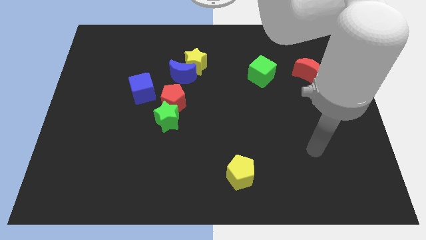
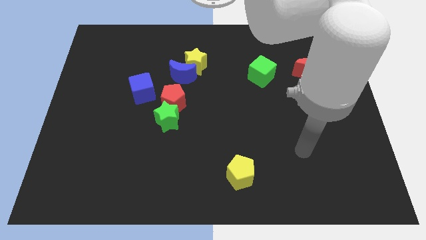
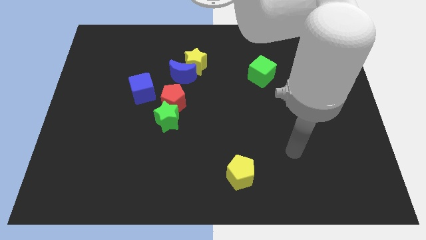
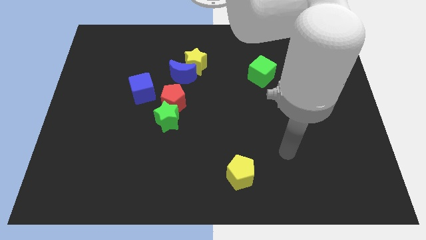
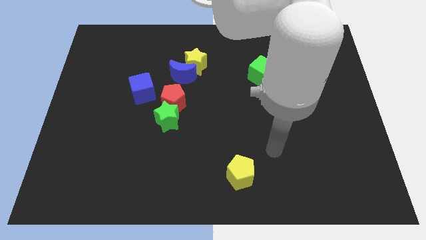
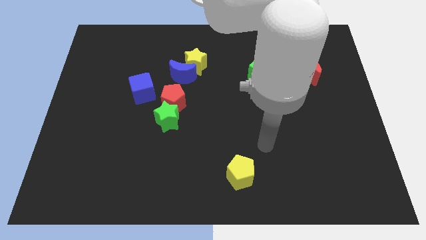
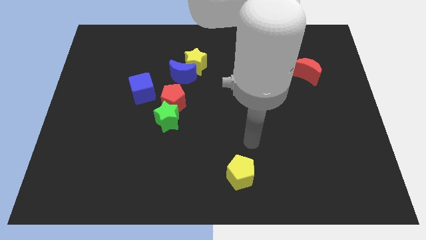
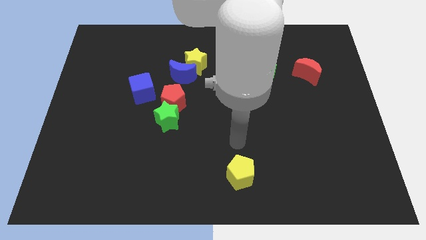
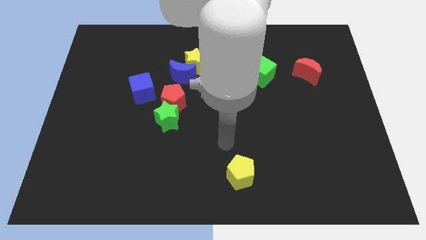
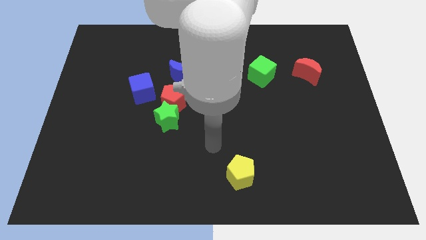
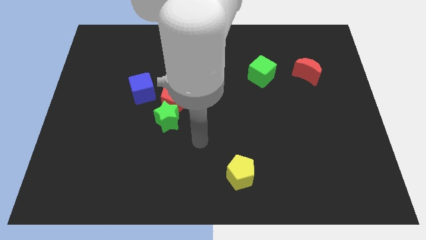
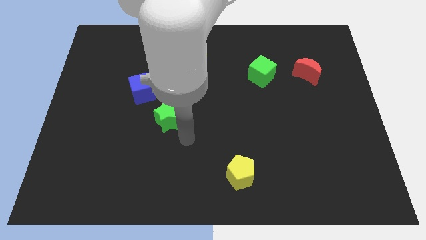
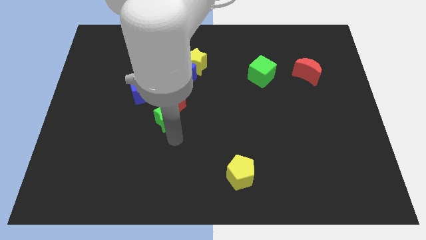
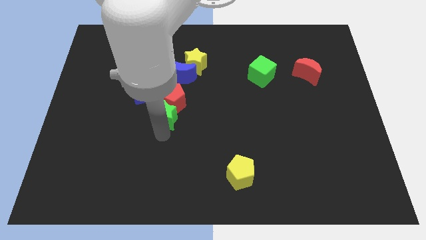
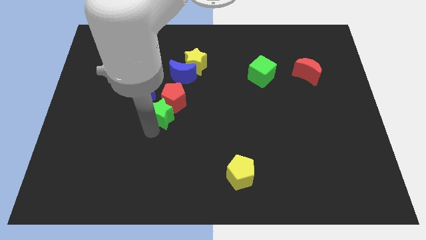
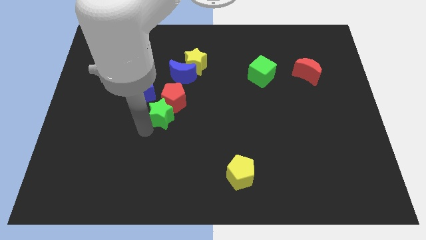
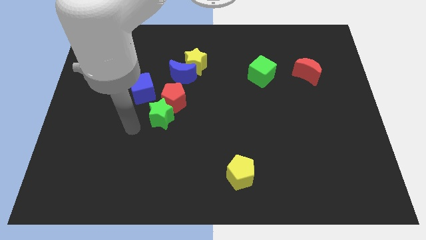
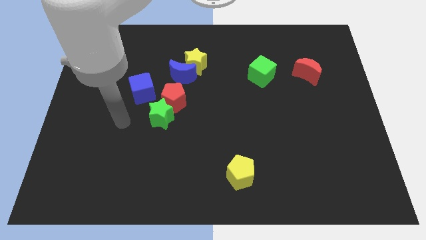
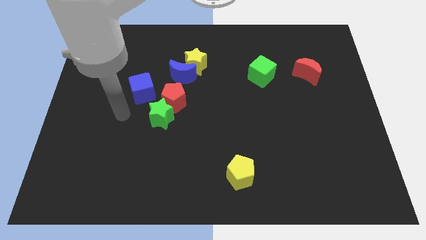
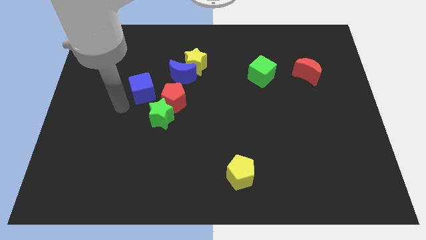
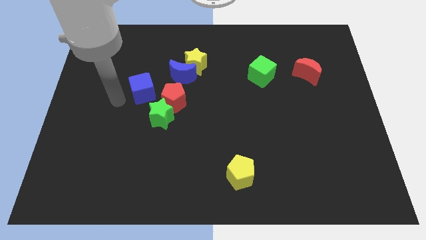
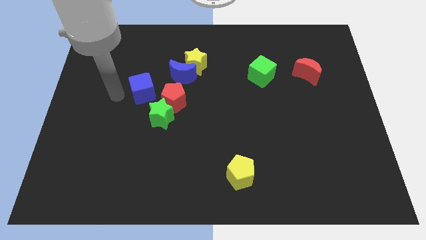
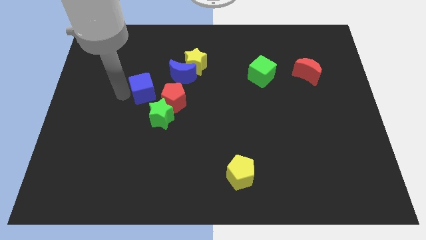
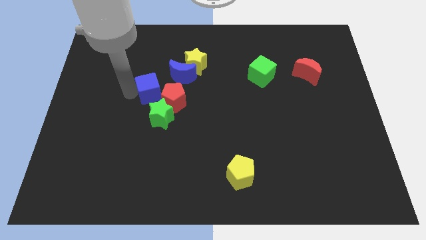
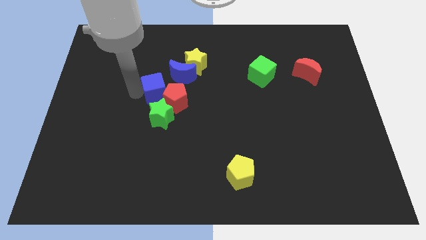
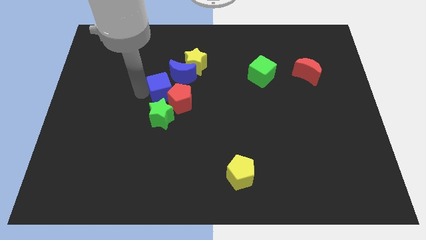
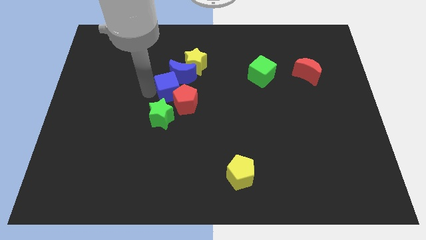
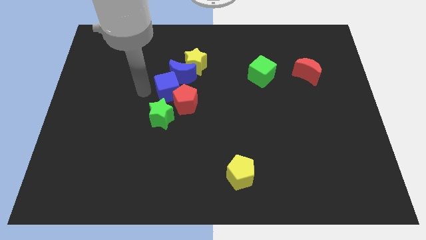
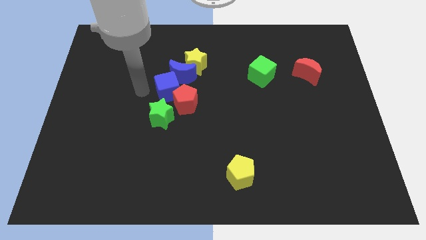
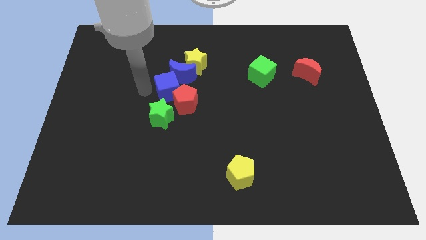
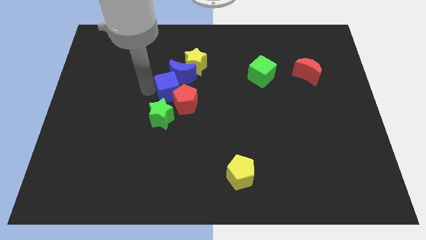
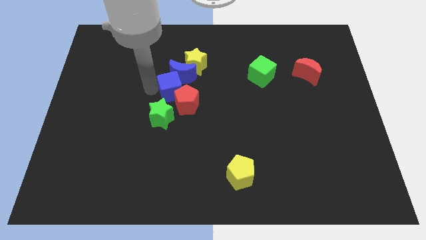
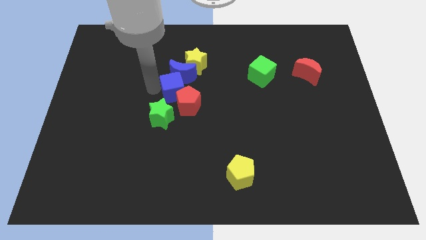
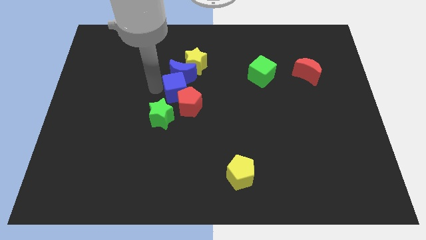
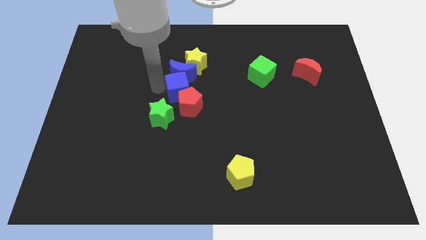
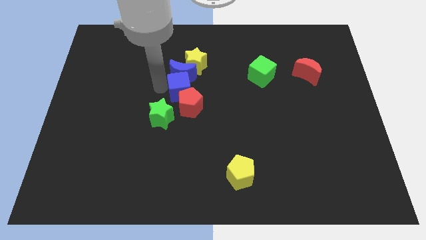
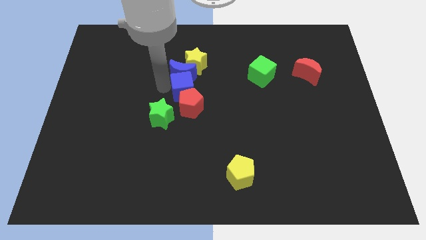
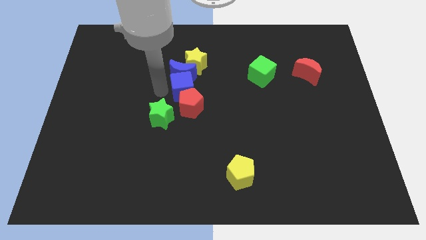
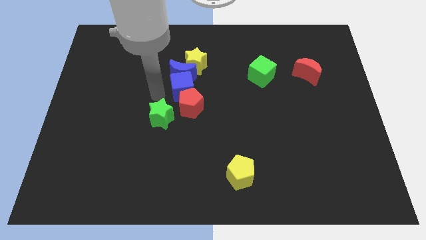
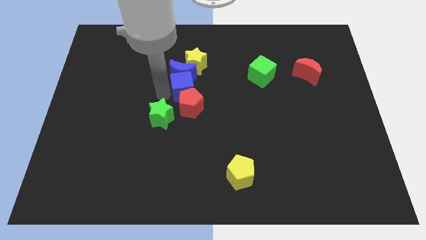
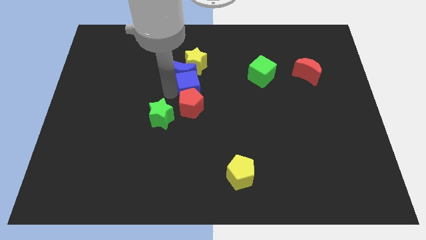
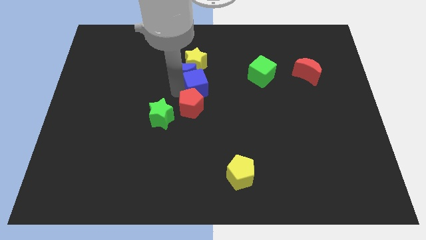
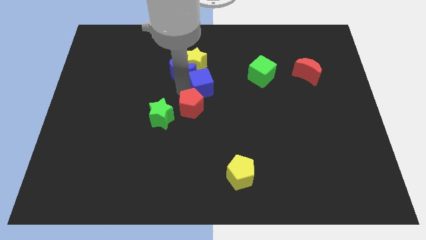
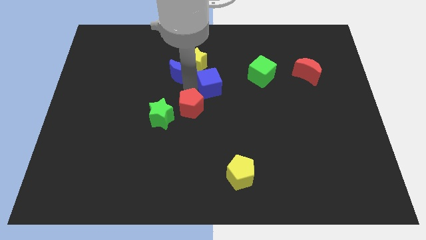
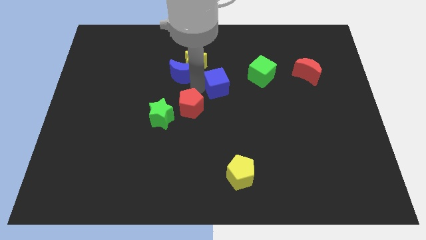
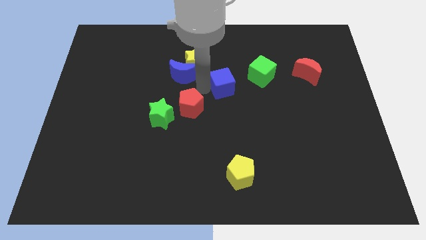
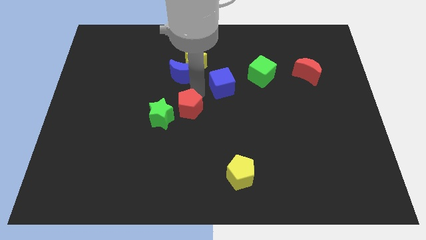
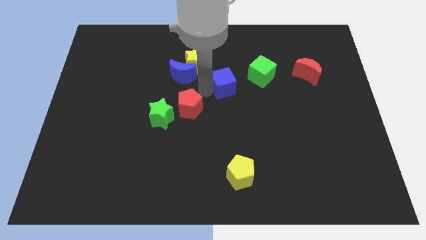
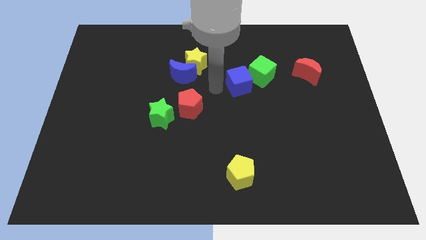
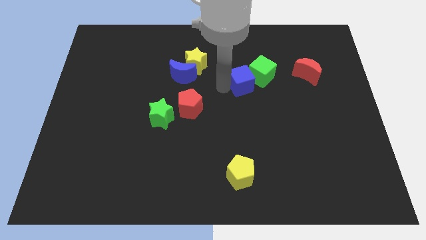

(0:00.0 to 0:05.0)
put the blue cube towards the green cube

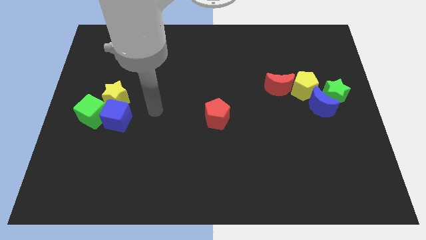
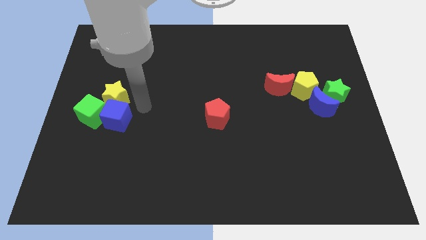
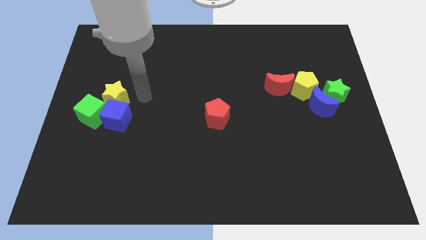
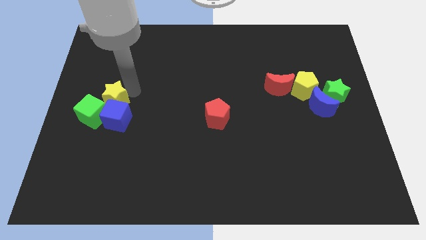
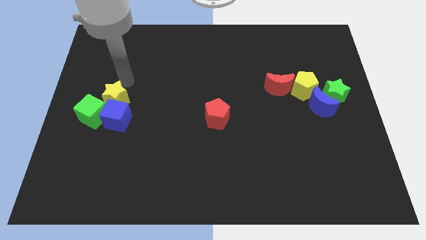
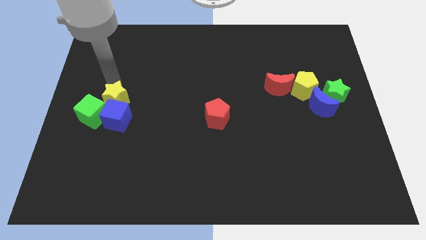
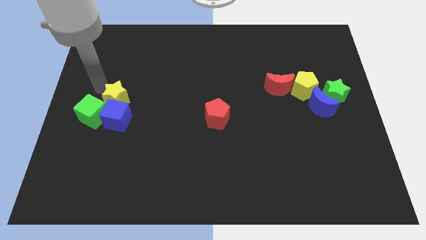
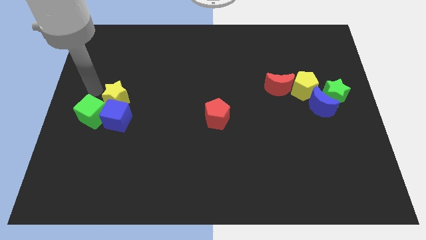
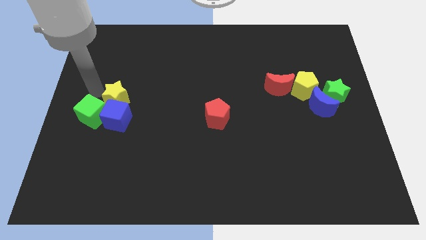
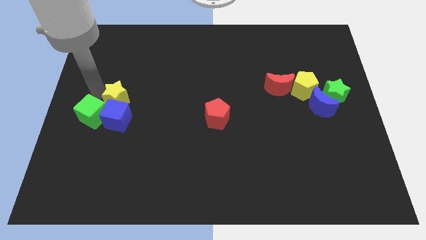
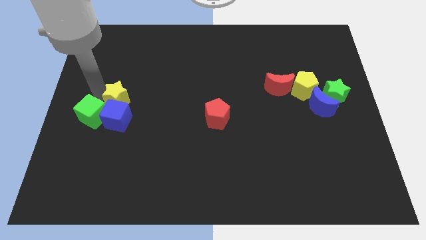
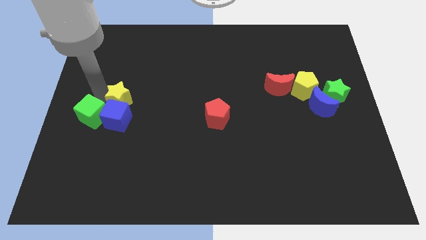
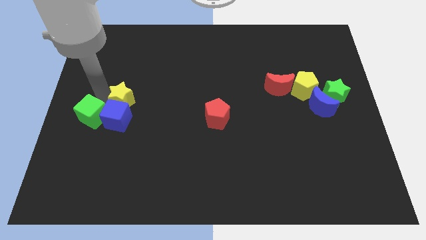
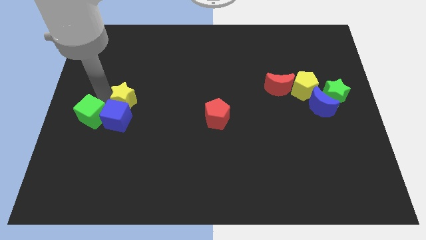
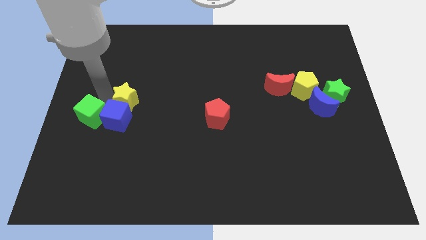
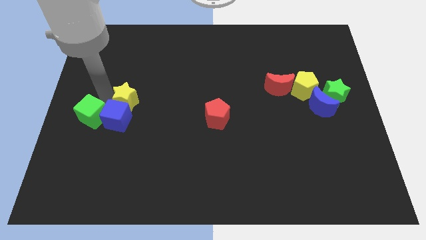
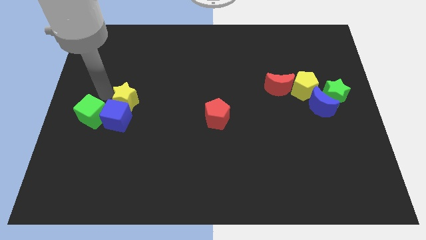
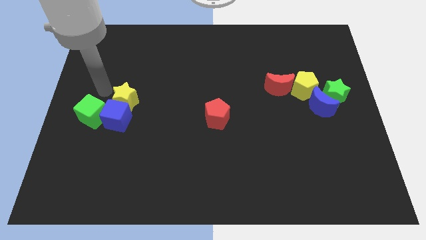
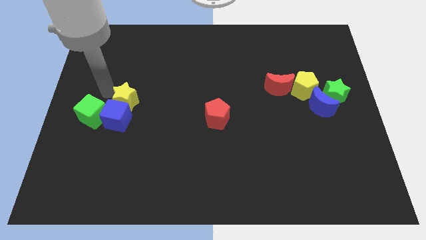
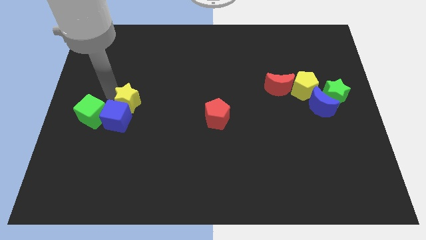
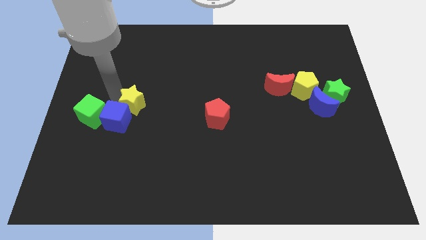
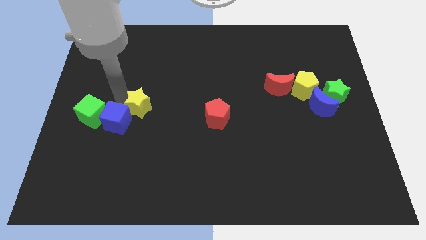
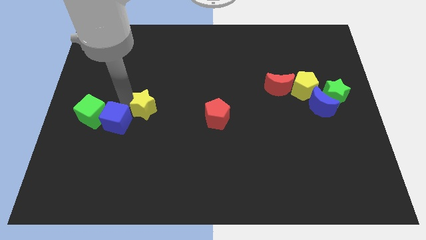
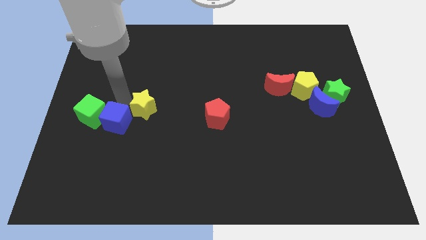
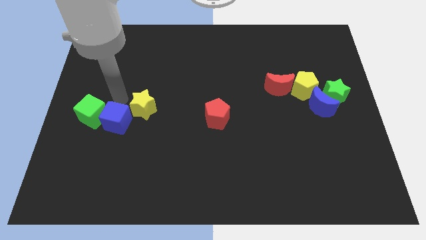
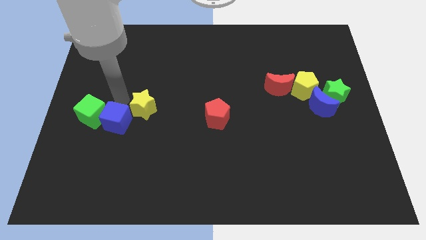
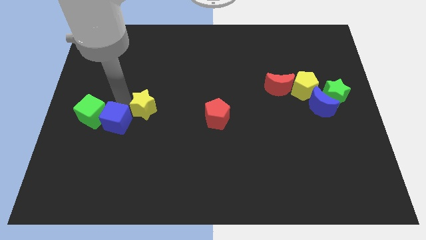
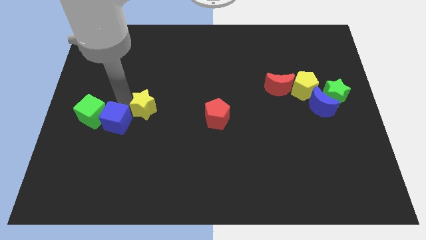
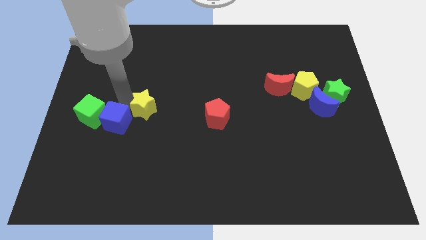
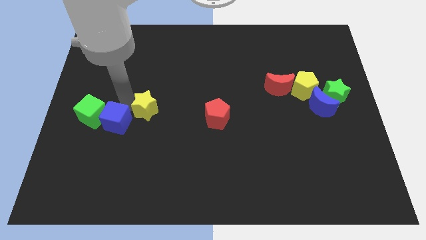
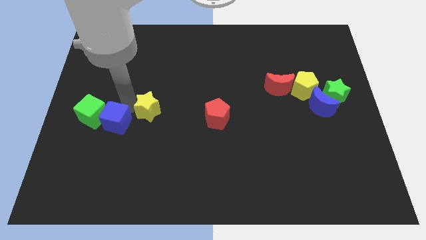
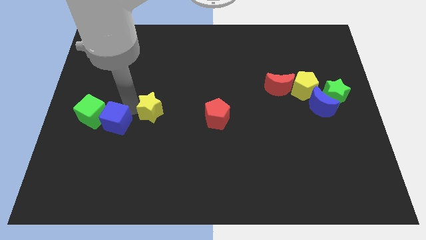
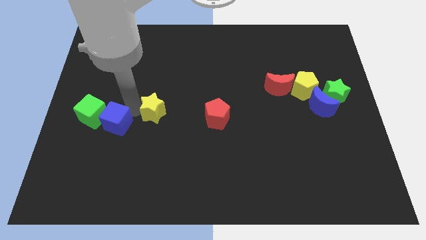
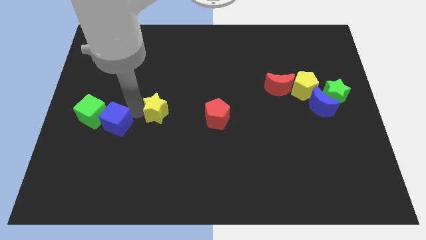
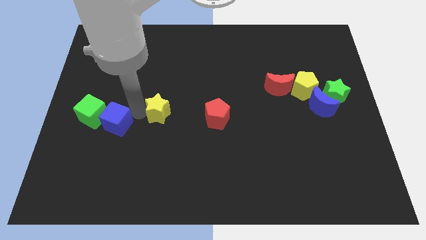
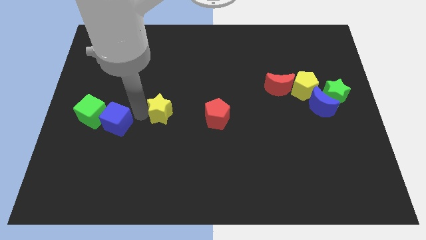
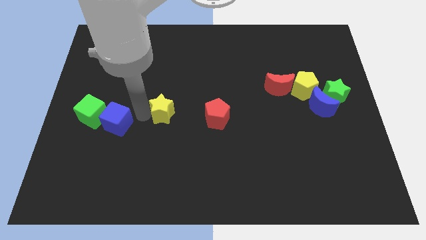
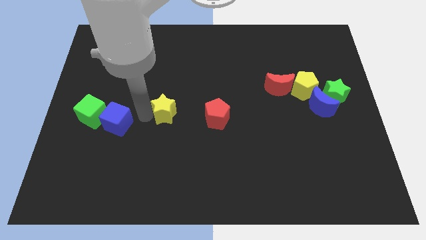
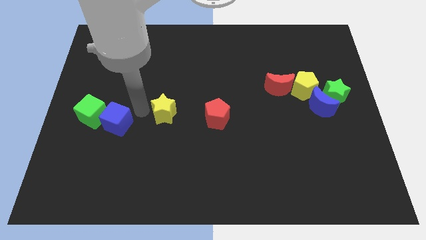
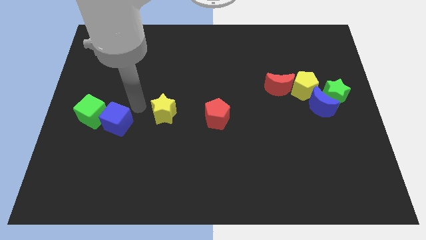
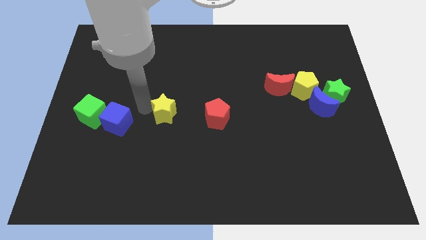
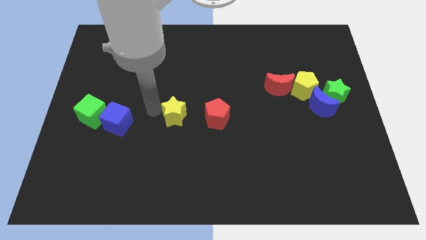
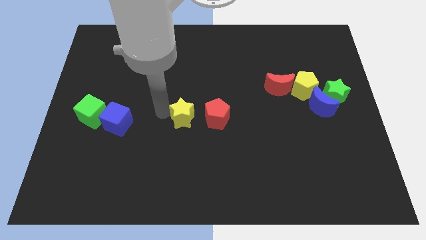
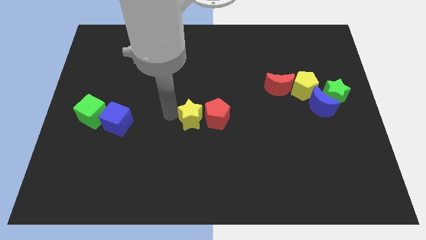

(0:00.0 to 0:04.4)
put the yellow star to the red pentagon
